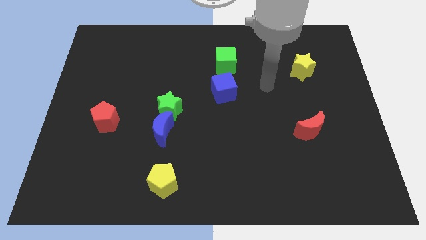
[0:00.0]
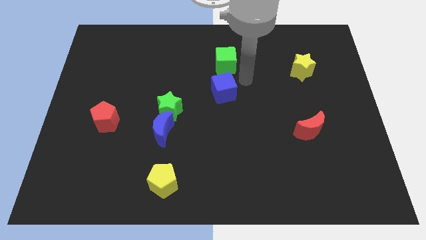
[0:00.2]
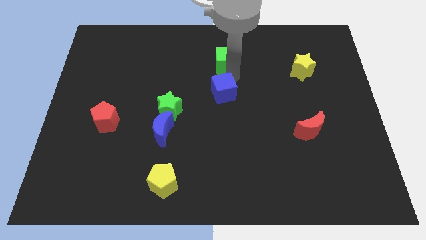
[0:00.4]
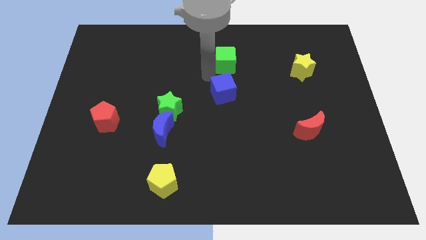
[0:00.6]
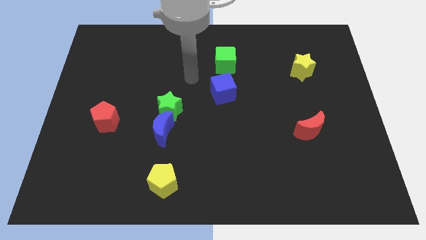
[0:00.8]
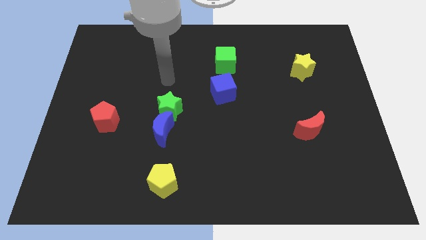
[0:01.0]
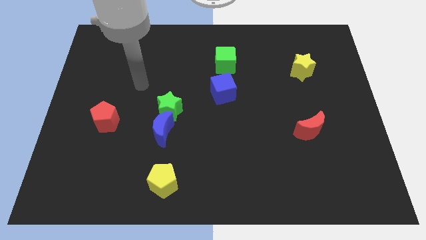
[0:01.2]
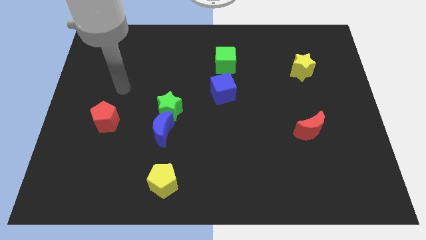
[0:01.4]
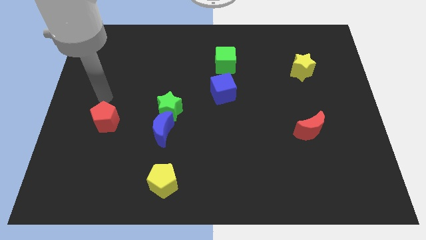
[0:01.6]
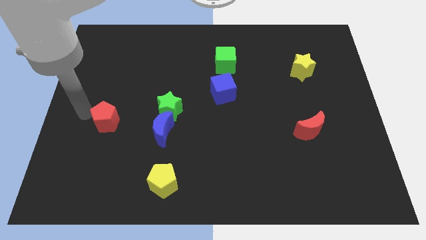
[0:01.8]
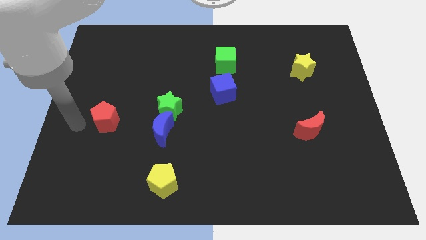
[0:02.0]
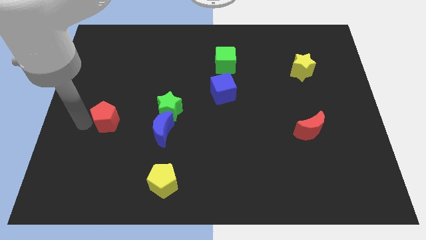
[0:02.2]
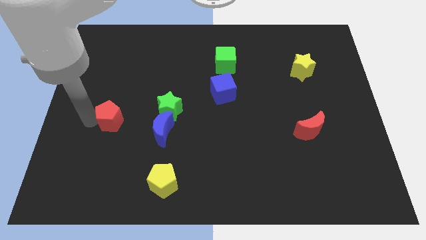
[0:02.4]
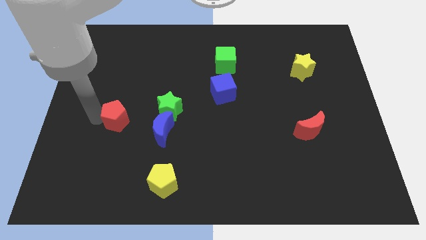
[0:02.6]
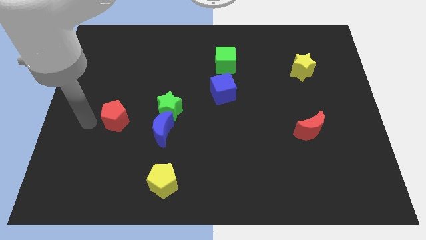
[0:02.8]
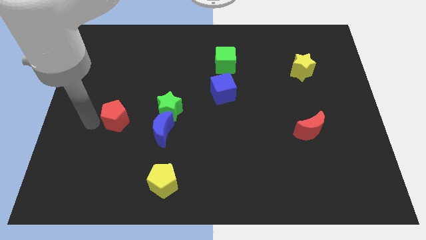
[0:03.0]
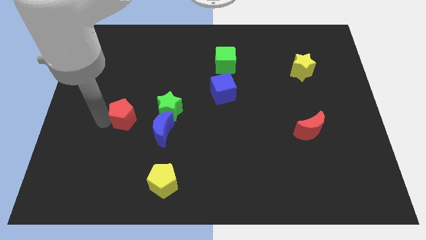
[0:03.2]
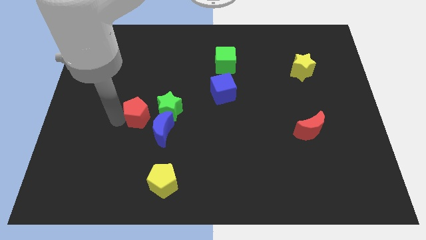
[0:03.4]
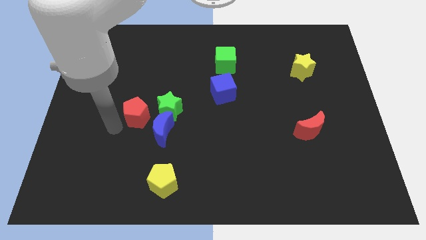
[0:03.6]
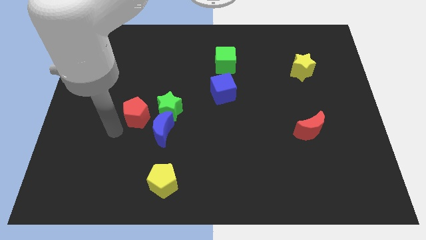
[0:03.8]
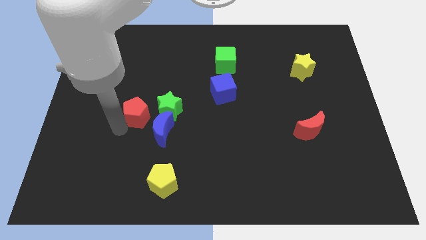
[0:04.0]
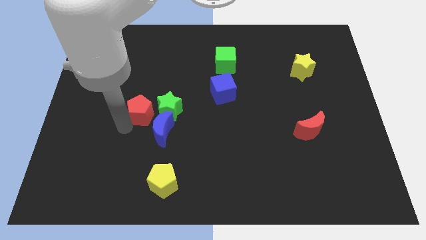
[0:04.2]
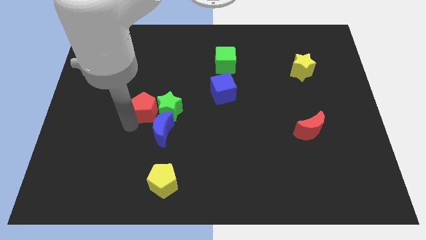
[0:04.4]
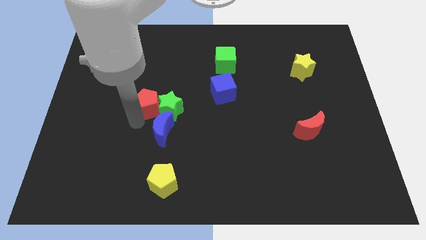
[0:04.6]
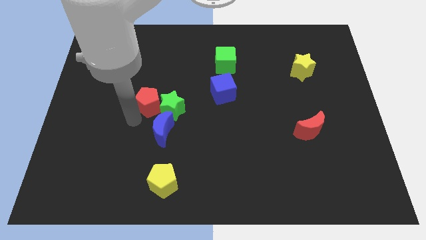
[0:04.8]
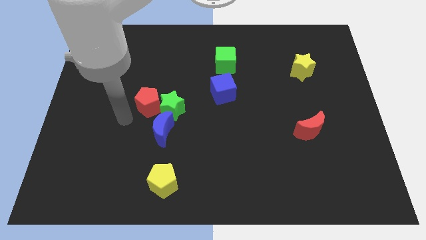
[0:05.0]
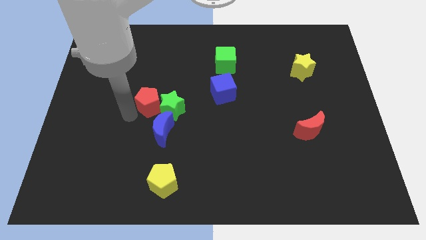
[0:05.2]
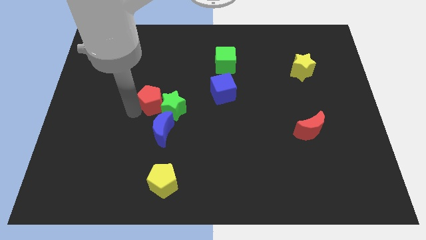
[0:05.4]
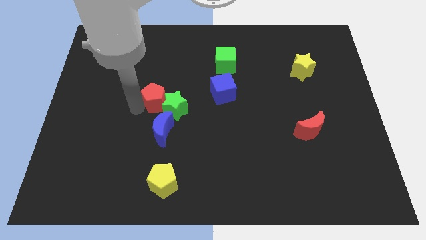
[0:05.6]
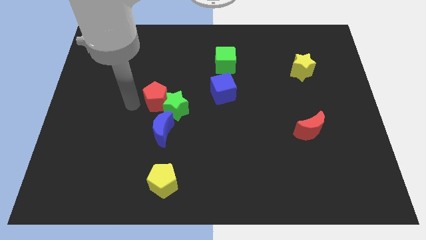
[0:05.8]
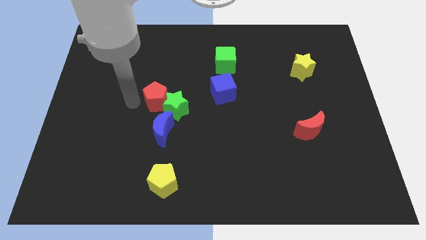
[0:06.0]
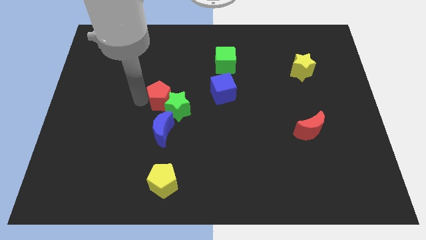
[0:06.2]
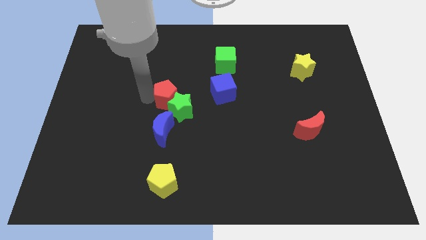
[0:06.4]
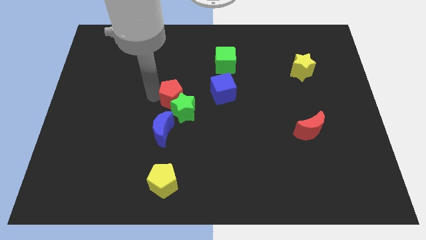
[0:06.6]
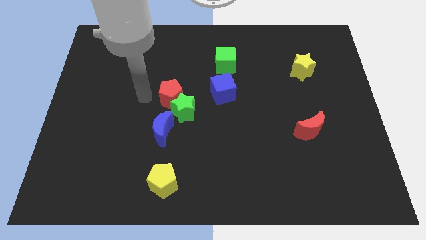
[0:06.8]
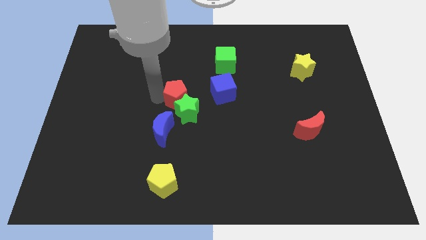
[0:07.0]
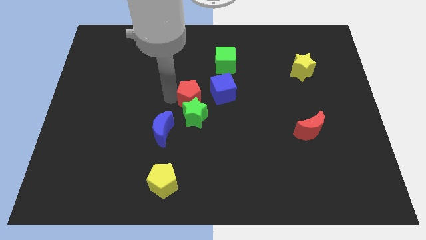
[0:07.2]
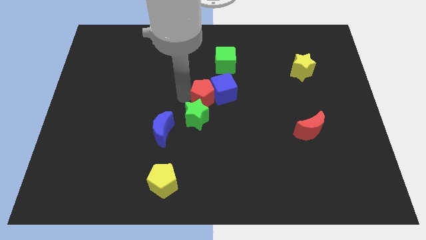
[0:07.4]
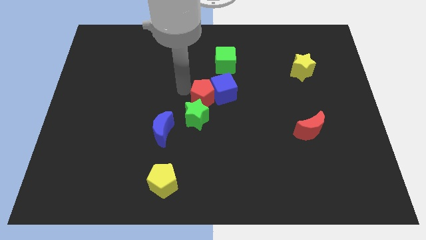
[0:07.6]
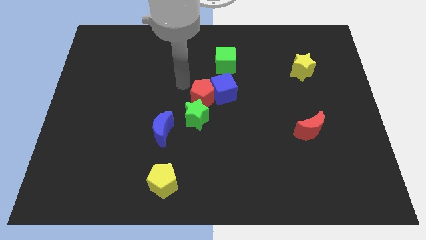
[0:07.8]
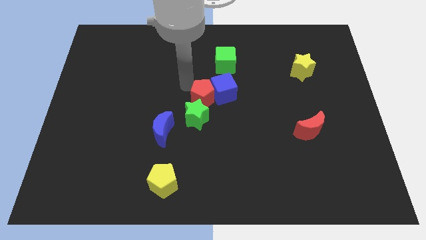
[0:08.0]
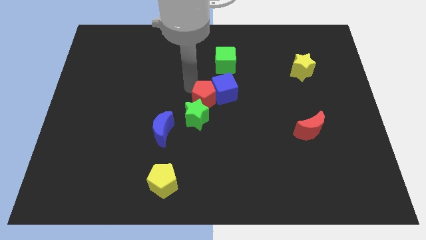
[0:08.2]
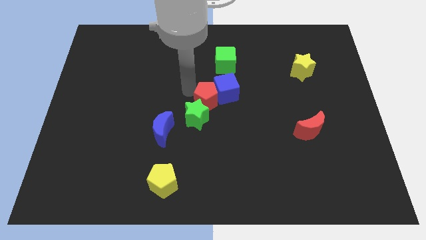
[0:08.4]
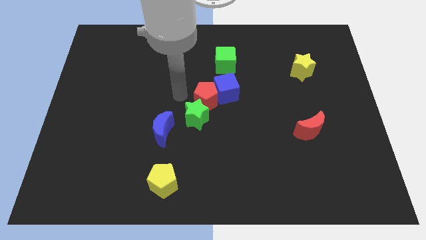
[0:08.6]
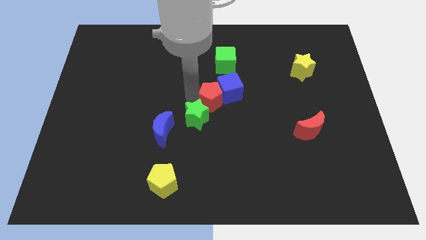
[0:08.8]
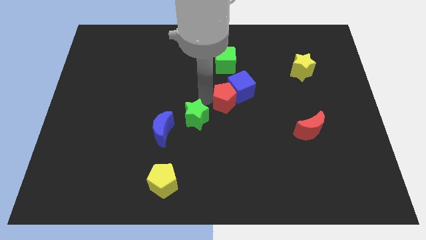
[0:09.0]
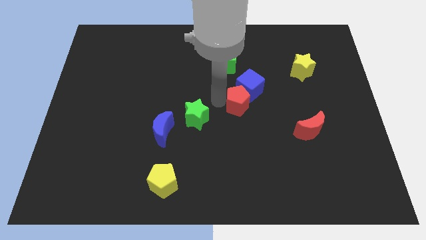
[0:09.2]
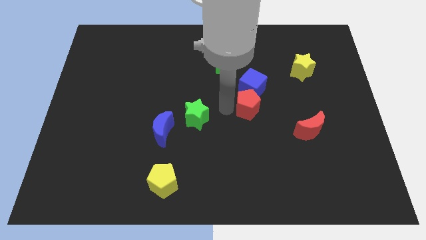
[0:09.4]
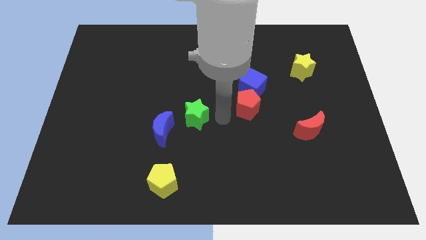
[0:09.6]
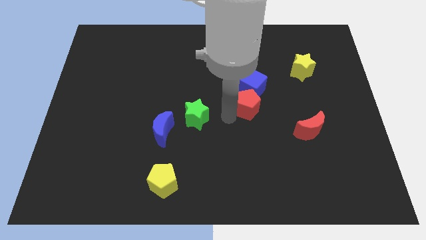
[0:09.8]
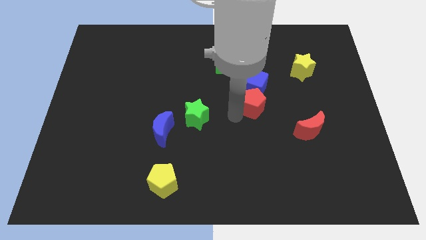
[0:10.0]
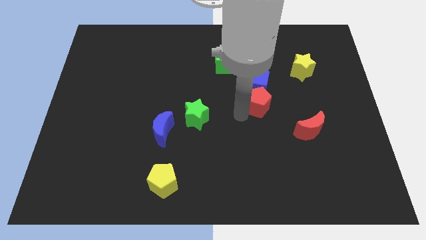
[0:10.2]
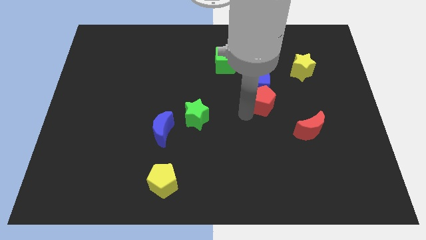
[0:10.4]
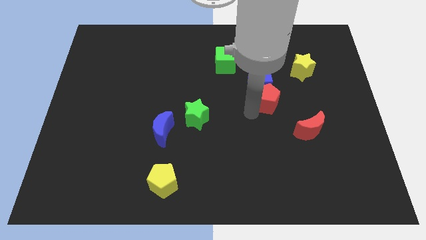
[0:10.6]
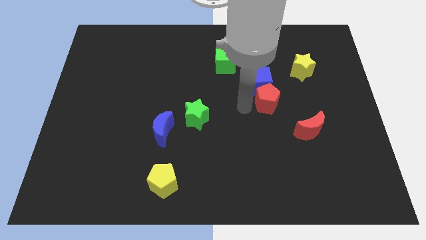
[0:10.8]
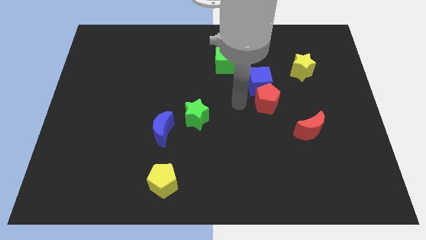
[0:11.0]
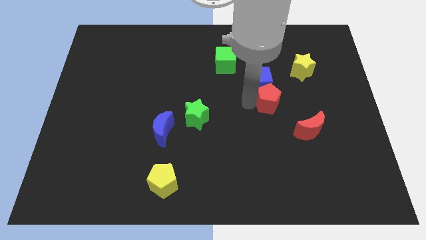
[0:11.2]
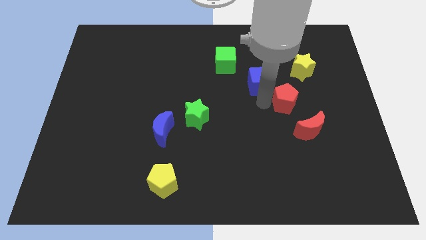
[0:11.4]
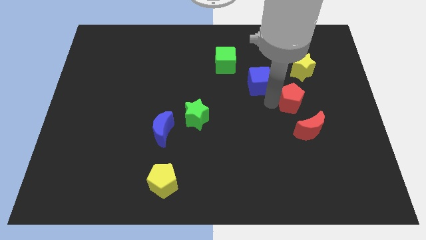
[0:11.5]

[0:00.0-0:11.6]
put the red pentagon below the yellow star

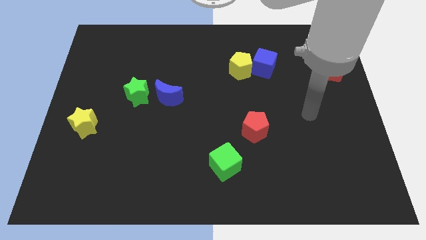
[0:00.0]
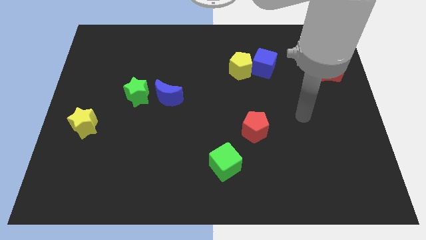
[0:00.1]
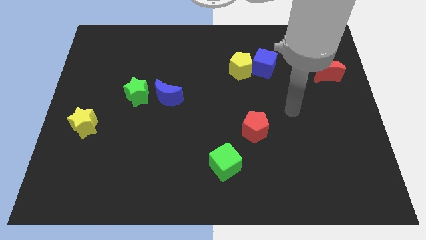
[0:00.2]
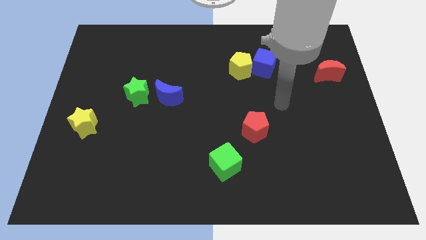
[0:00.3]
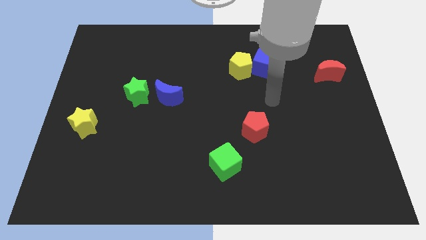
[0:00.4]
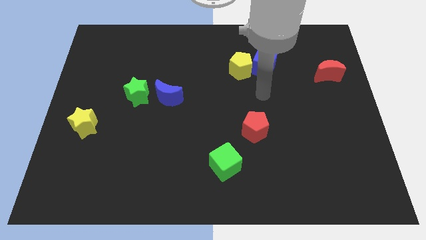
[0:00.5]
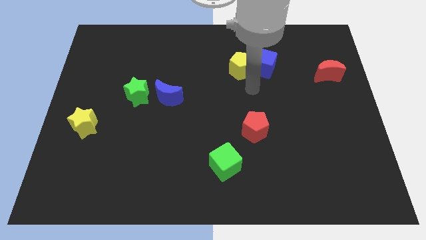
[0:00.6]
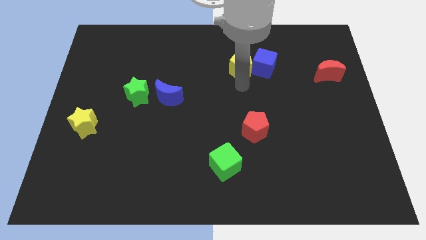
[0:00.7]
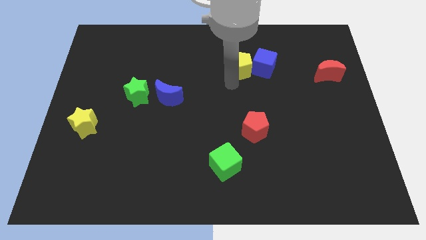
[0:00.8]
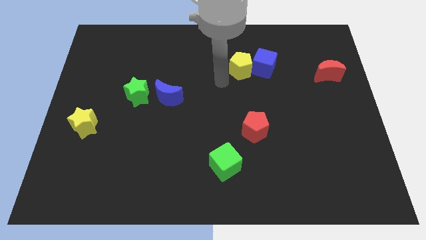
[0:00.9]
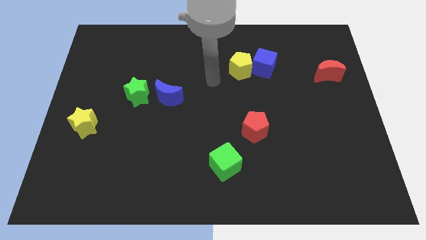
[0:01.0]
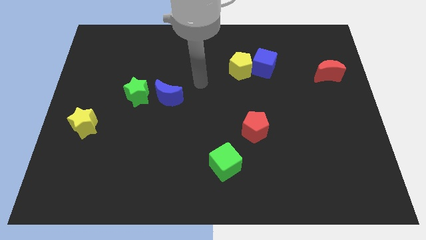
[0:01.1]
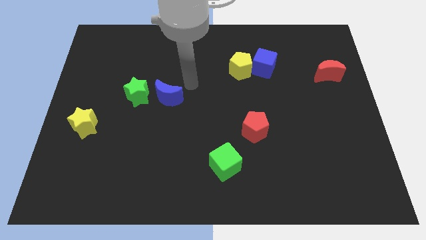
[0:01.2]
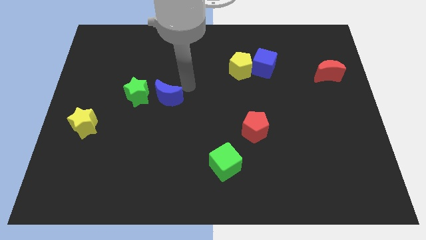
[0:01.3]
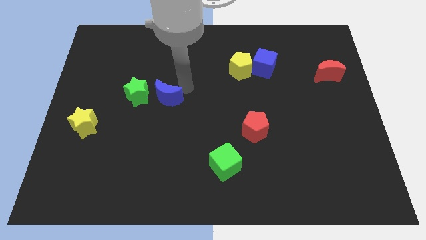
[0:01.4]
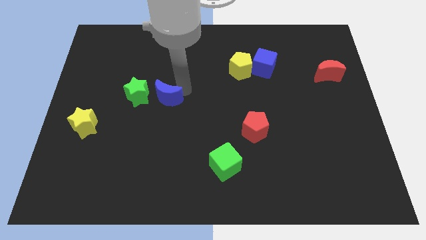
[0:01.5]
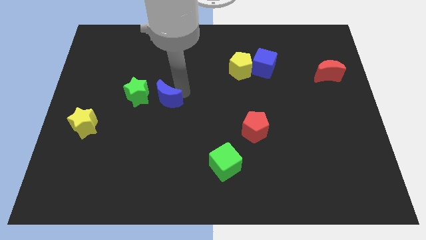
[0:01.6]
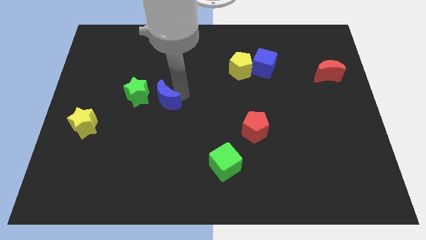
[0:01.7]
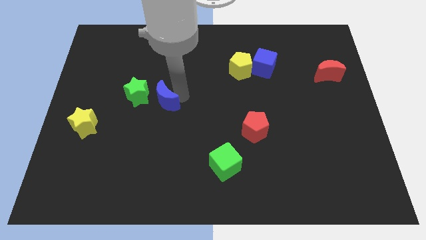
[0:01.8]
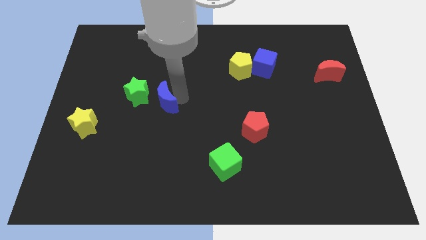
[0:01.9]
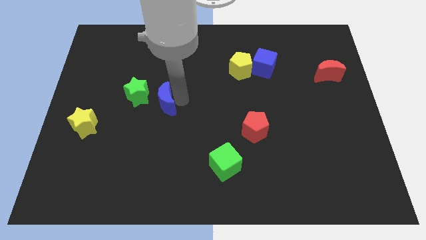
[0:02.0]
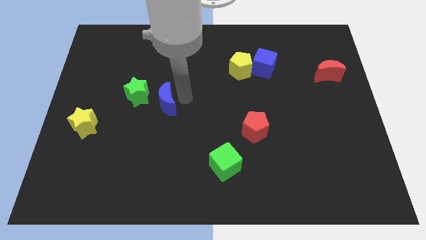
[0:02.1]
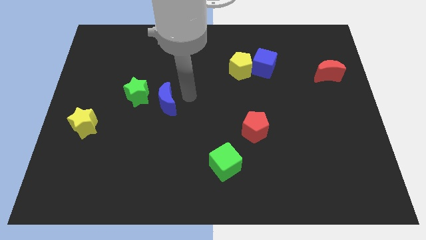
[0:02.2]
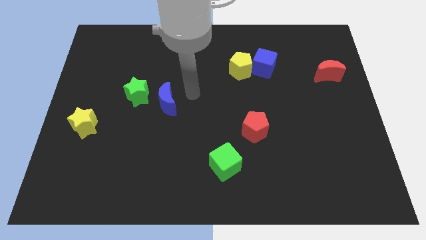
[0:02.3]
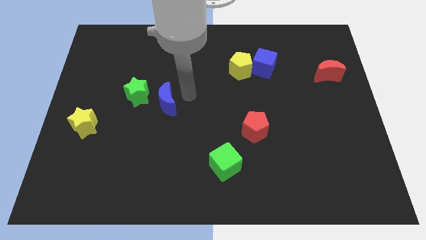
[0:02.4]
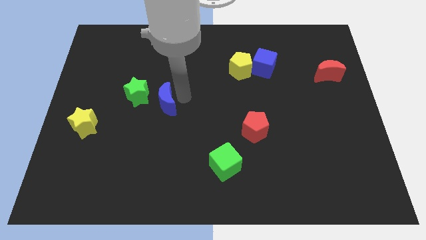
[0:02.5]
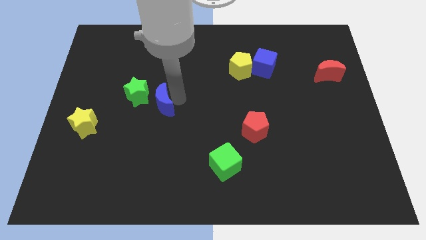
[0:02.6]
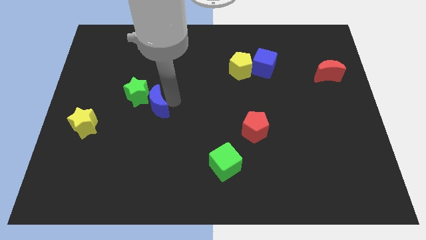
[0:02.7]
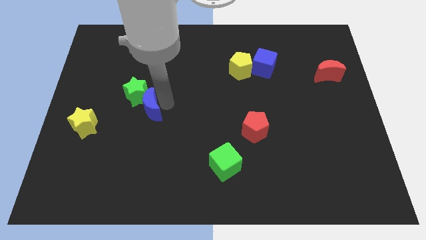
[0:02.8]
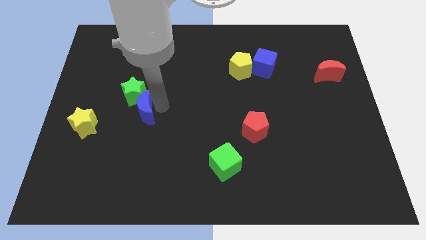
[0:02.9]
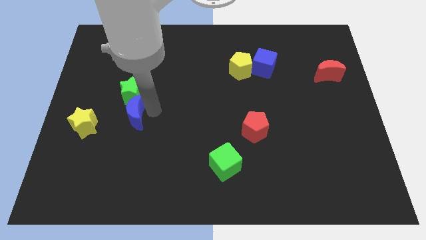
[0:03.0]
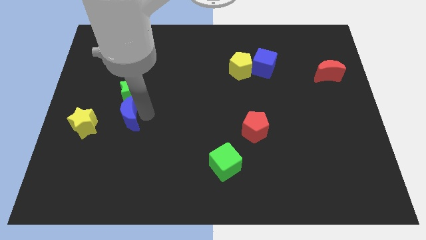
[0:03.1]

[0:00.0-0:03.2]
move the blue moon to the bottom left of the green star
